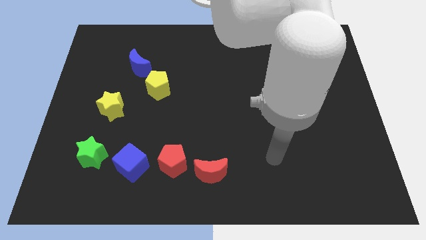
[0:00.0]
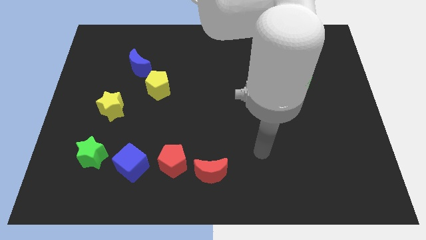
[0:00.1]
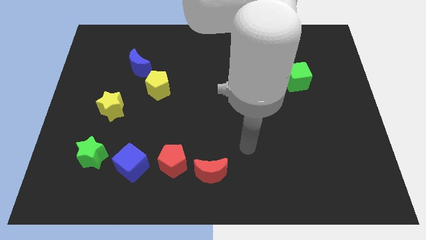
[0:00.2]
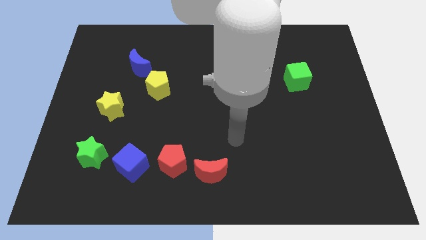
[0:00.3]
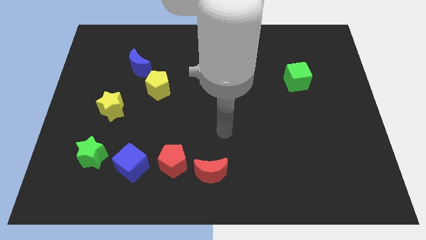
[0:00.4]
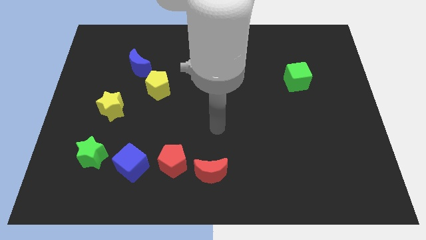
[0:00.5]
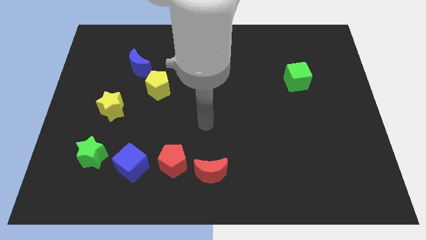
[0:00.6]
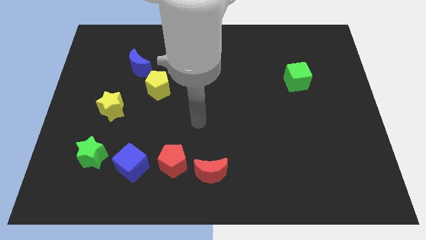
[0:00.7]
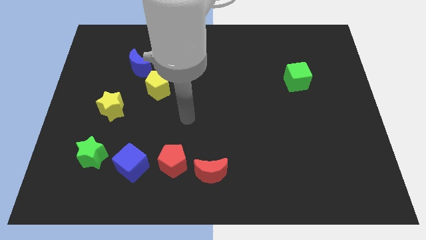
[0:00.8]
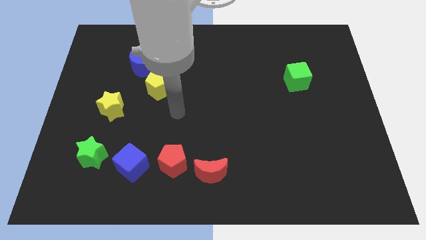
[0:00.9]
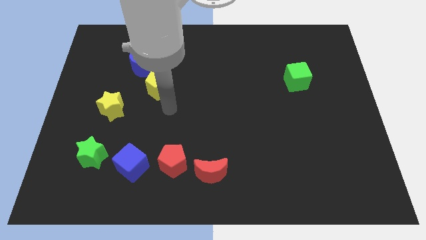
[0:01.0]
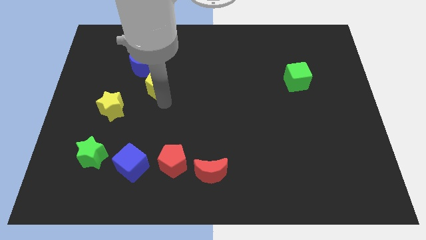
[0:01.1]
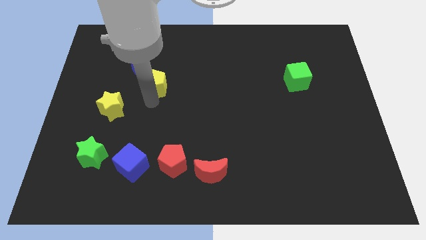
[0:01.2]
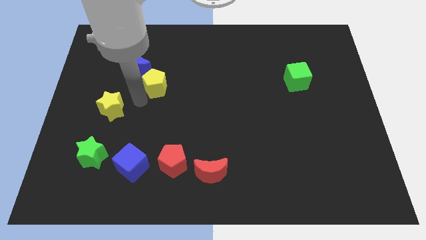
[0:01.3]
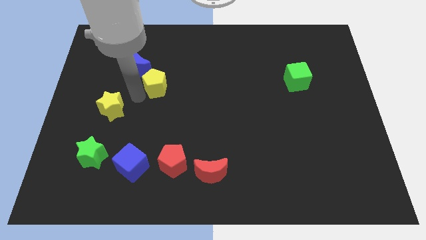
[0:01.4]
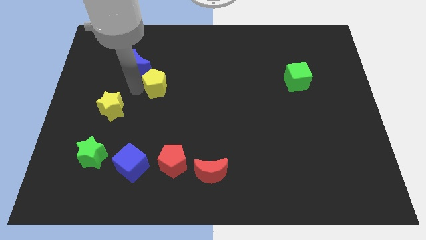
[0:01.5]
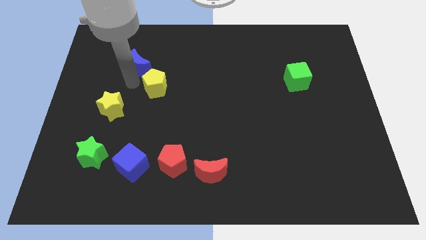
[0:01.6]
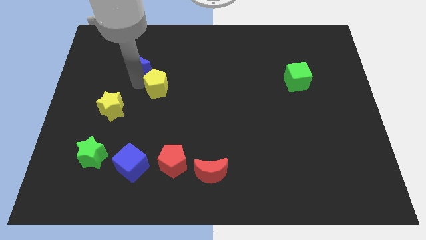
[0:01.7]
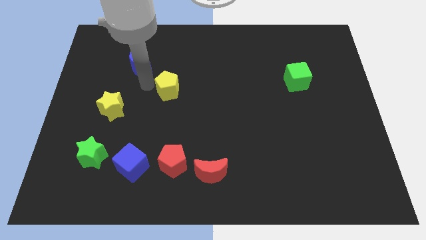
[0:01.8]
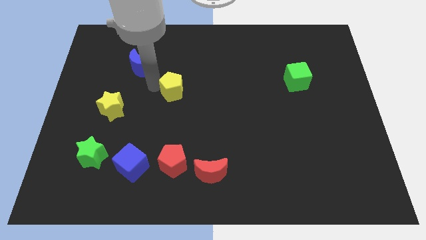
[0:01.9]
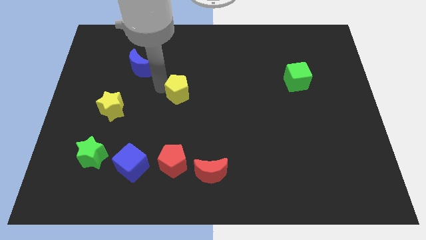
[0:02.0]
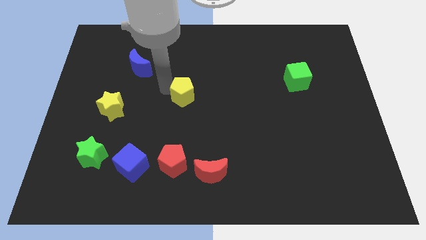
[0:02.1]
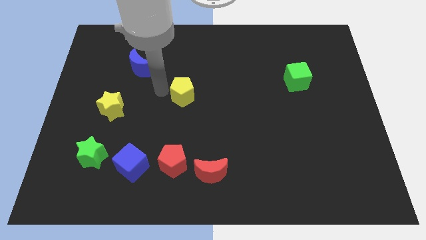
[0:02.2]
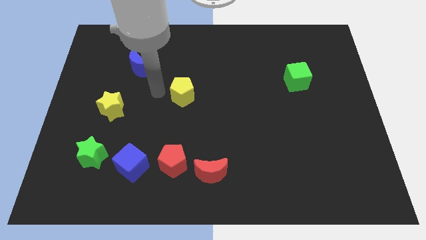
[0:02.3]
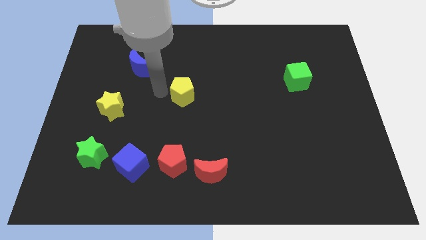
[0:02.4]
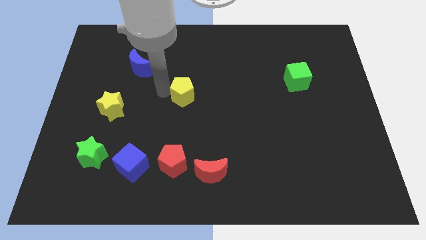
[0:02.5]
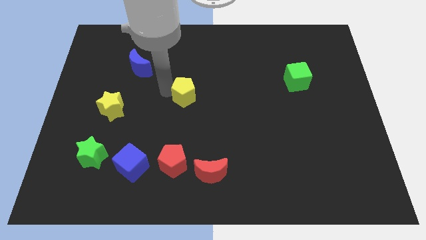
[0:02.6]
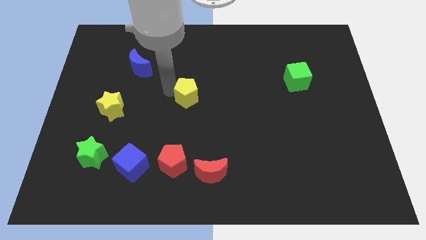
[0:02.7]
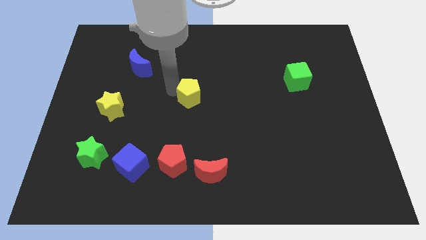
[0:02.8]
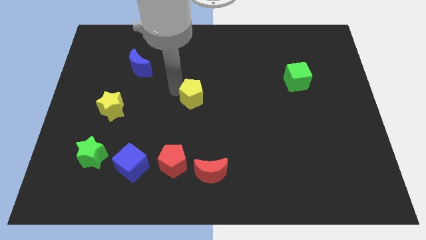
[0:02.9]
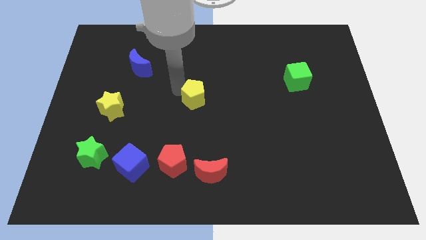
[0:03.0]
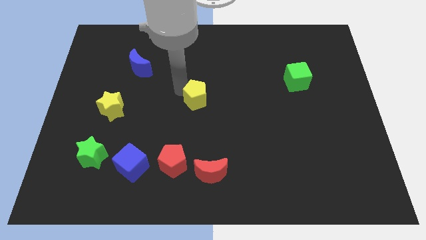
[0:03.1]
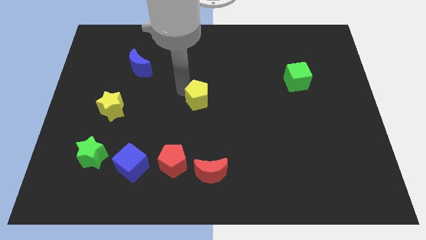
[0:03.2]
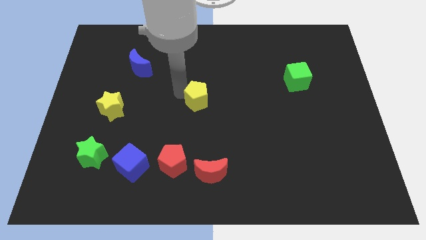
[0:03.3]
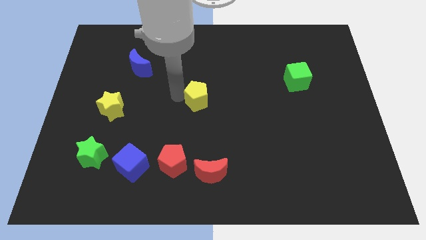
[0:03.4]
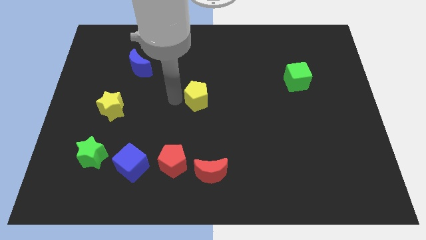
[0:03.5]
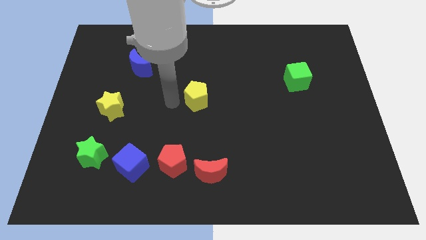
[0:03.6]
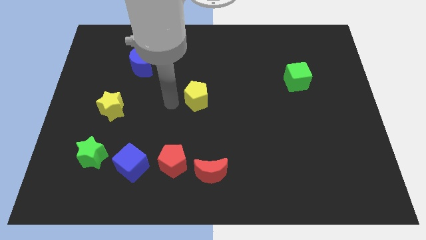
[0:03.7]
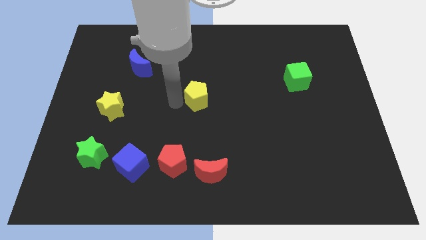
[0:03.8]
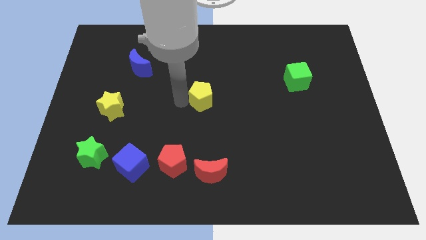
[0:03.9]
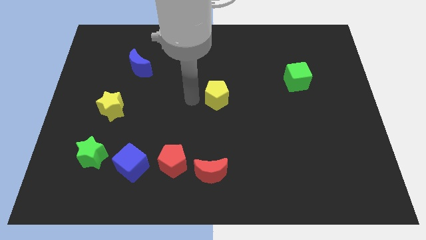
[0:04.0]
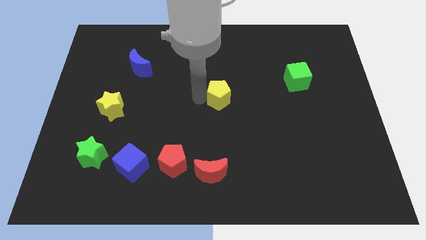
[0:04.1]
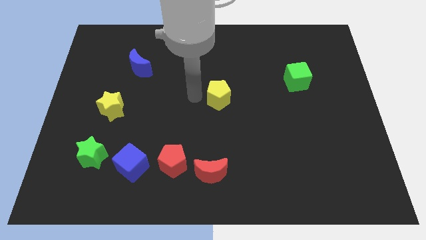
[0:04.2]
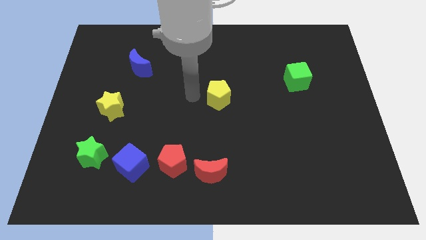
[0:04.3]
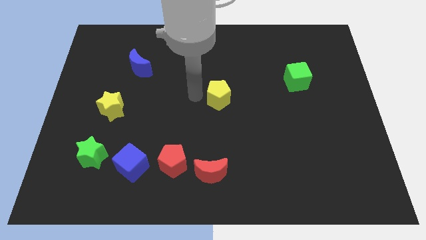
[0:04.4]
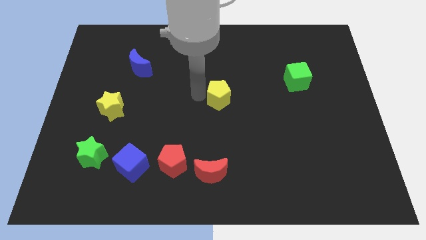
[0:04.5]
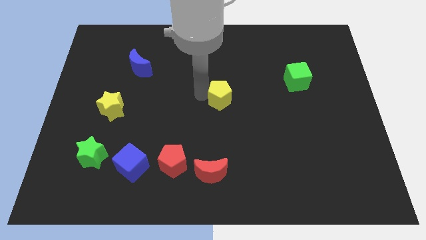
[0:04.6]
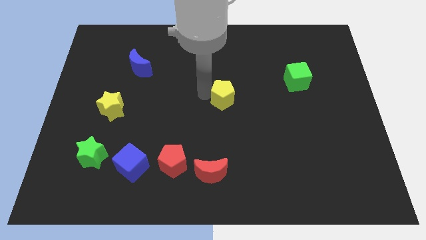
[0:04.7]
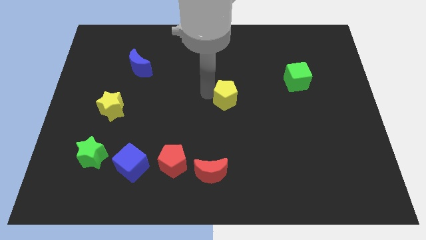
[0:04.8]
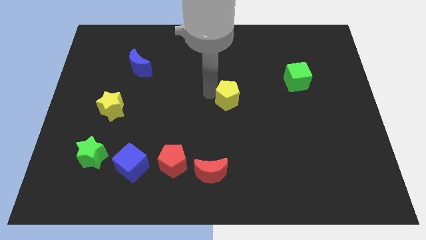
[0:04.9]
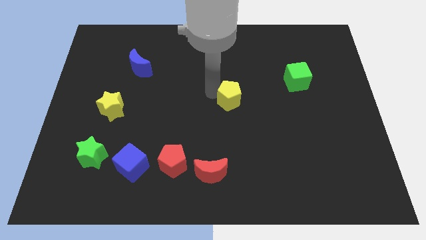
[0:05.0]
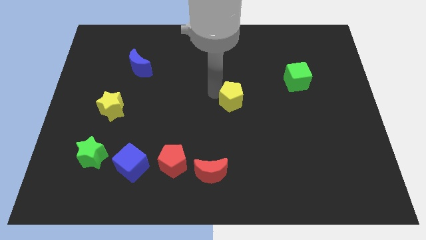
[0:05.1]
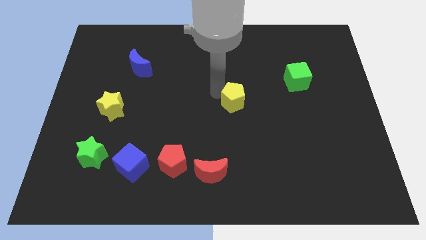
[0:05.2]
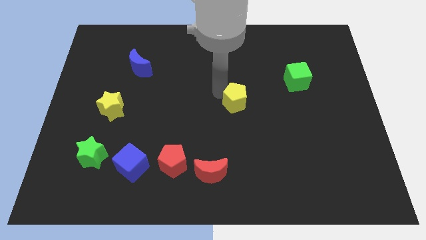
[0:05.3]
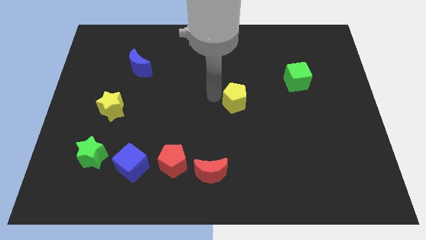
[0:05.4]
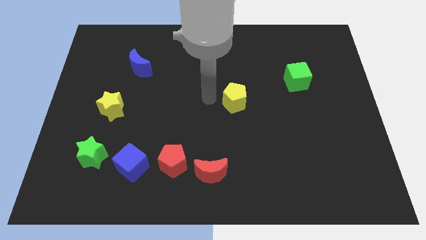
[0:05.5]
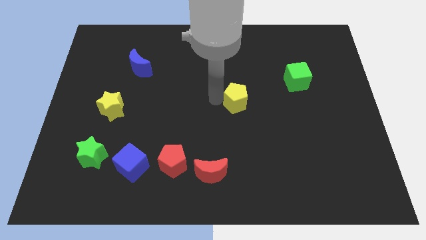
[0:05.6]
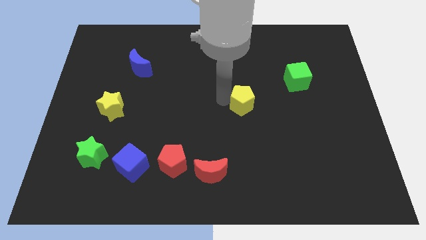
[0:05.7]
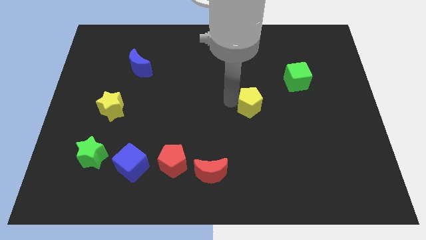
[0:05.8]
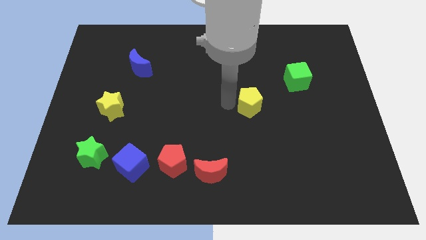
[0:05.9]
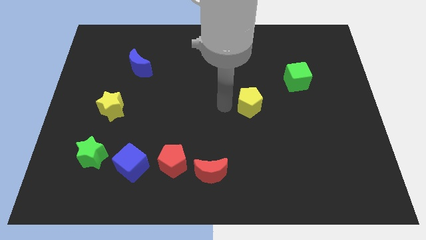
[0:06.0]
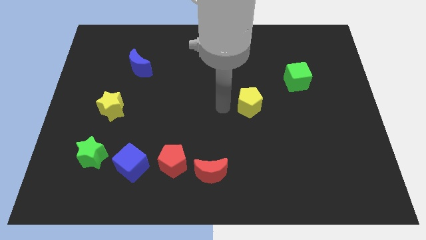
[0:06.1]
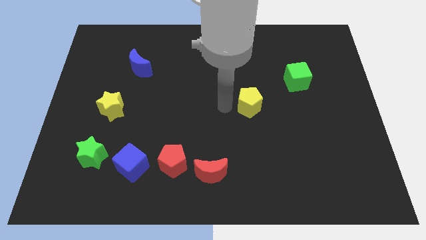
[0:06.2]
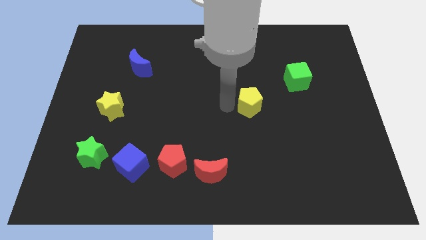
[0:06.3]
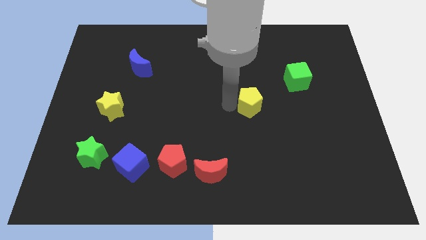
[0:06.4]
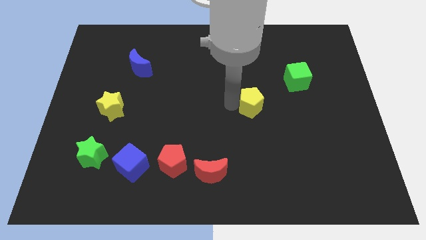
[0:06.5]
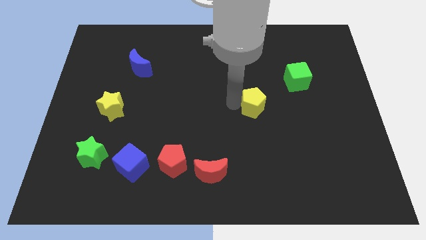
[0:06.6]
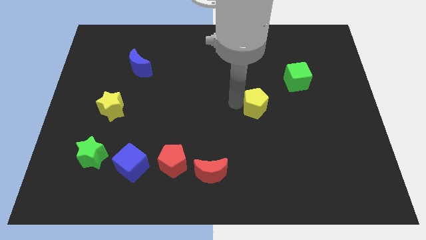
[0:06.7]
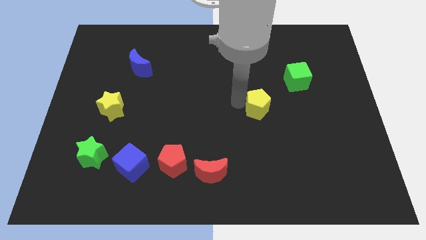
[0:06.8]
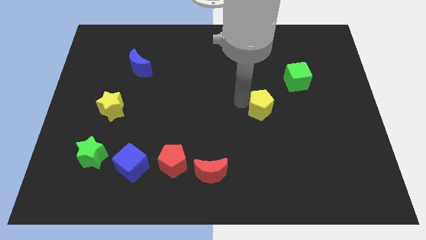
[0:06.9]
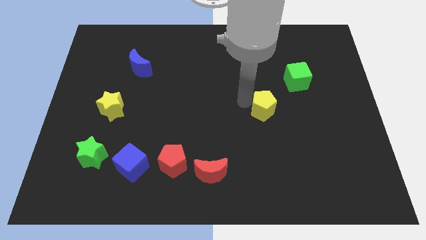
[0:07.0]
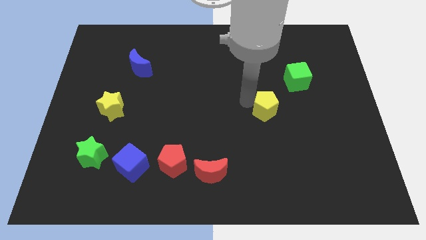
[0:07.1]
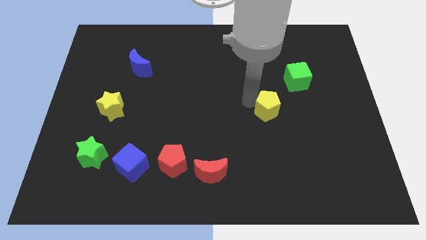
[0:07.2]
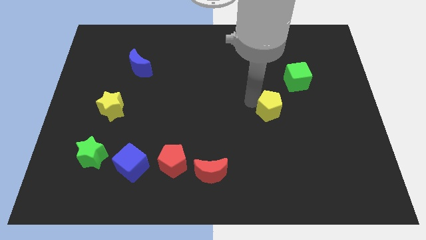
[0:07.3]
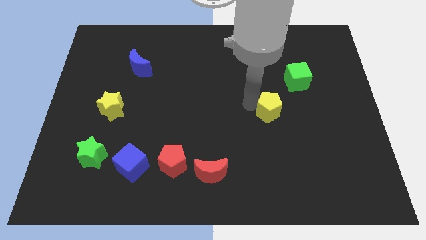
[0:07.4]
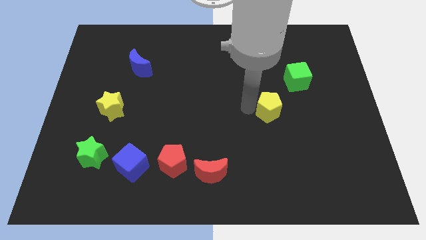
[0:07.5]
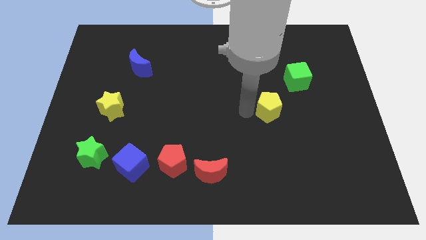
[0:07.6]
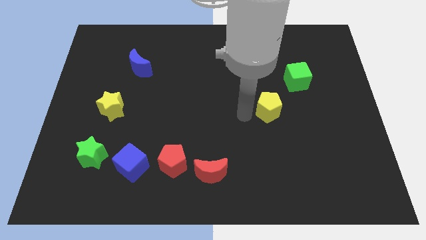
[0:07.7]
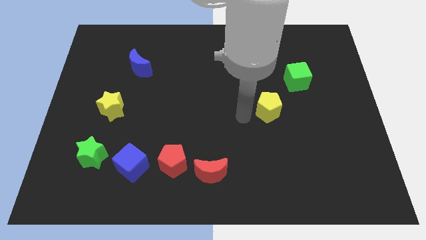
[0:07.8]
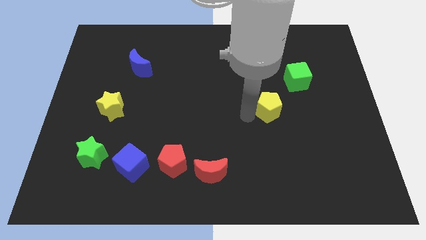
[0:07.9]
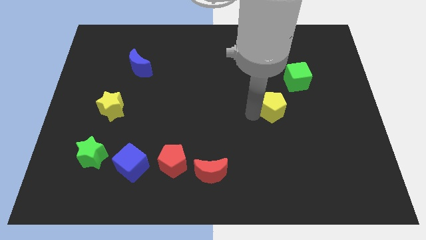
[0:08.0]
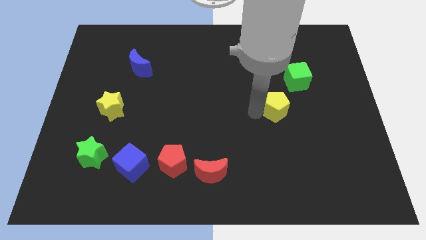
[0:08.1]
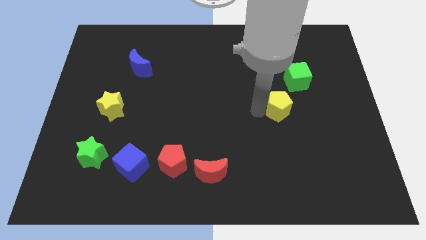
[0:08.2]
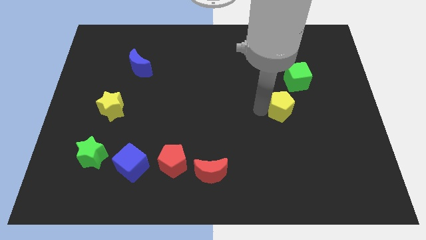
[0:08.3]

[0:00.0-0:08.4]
slide the yellow pentagon below the green cube
